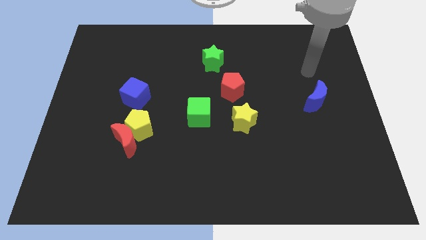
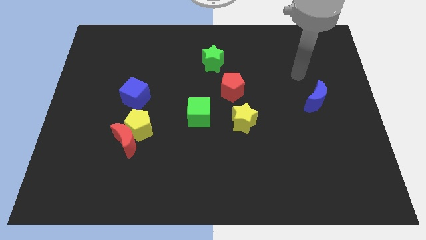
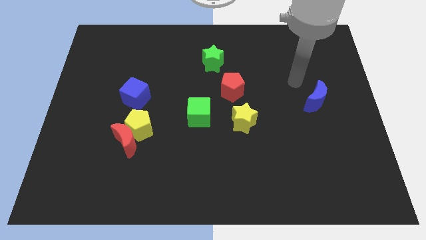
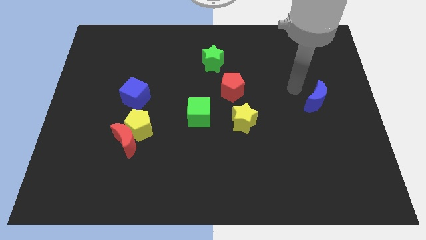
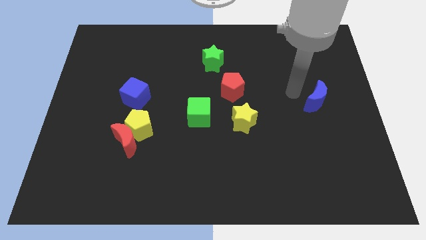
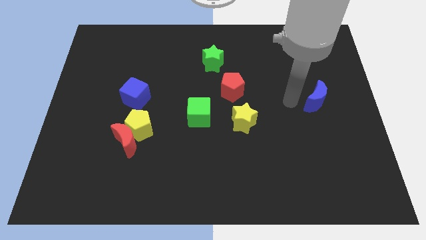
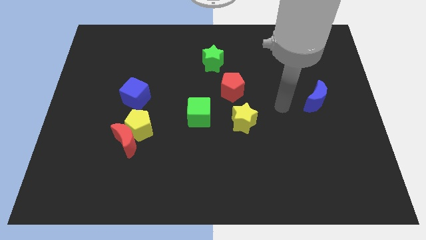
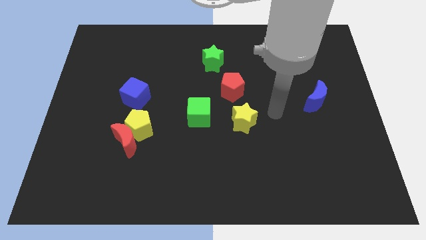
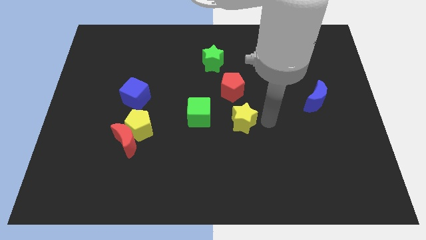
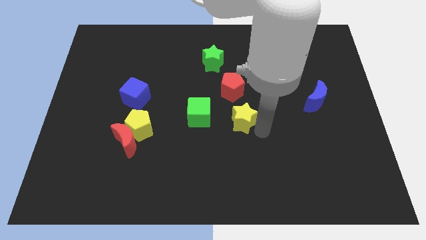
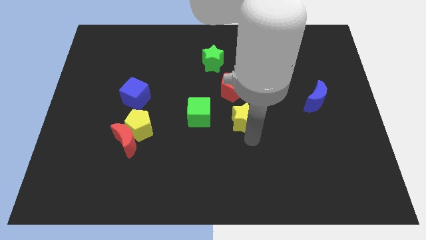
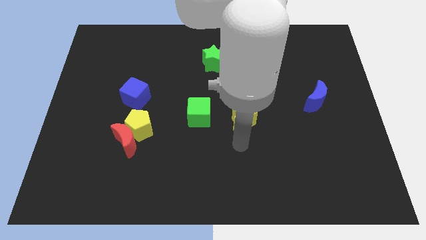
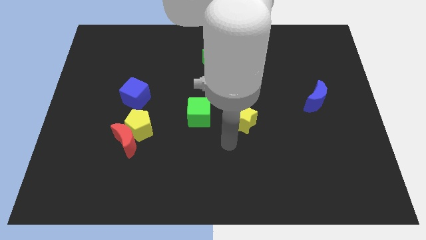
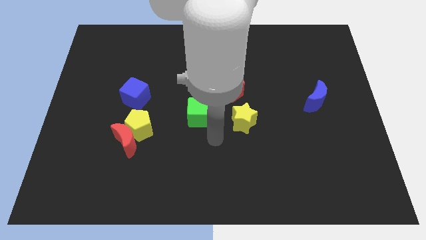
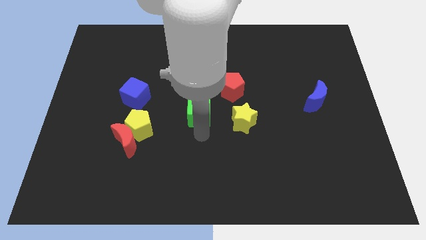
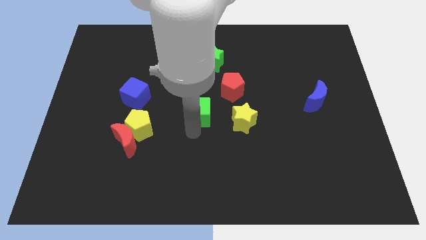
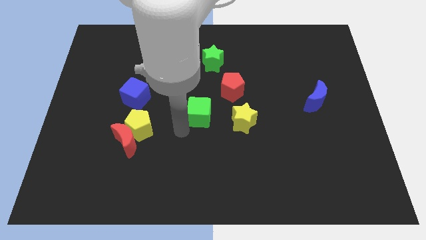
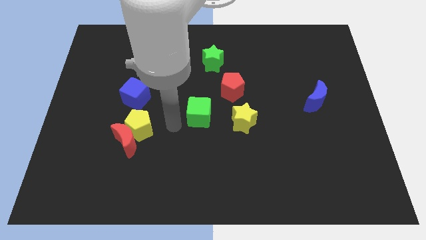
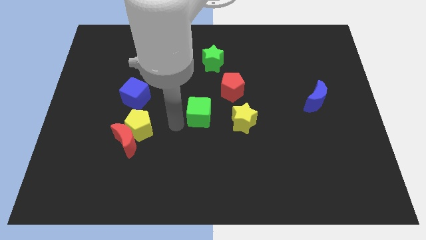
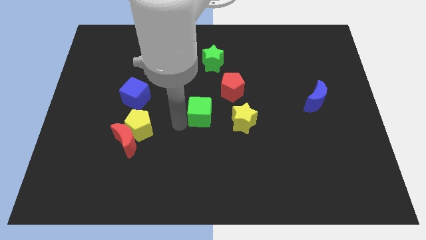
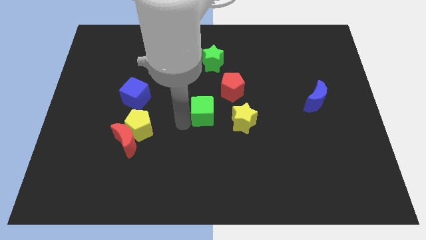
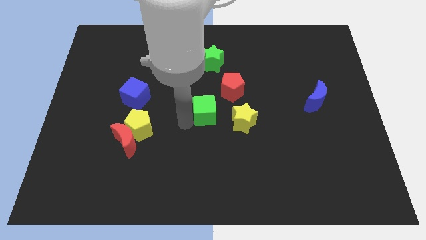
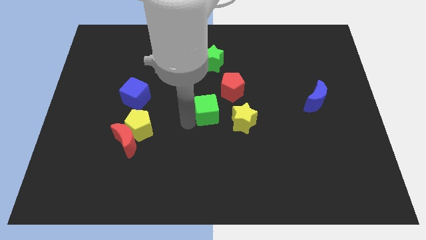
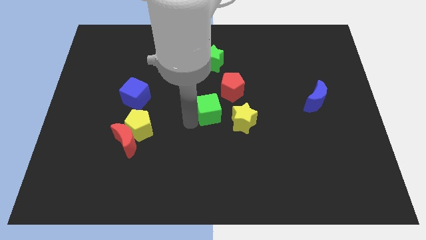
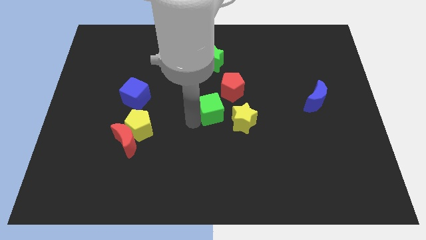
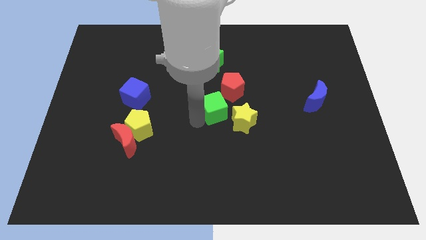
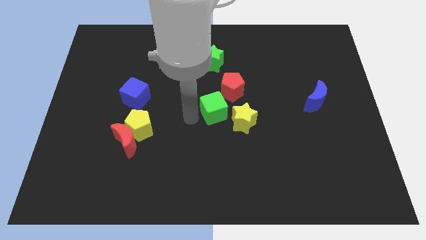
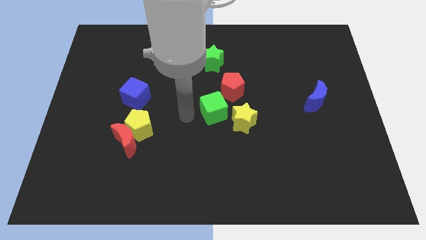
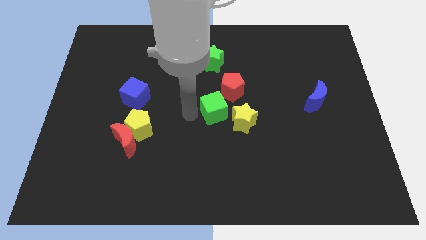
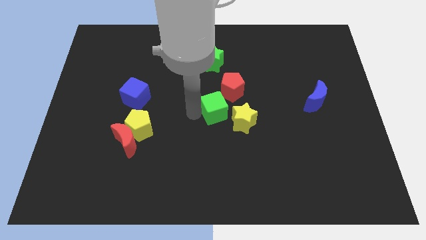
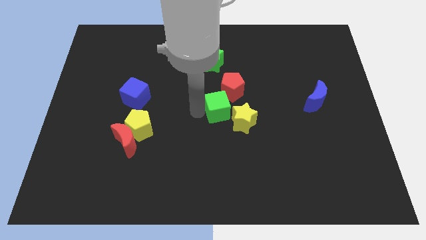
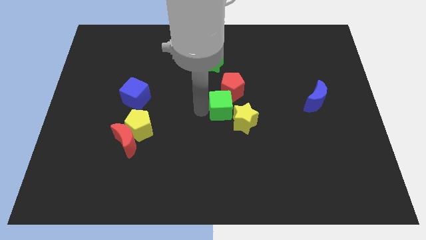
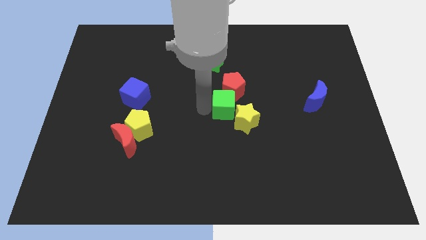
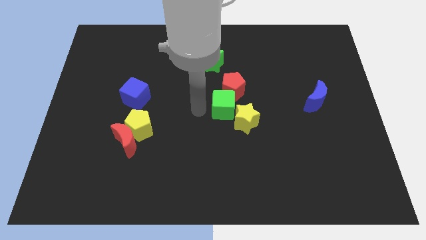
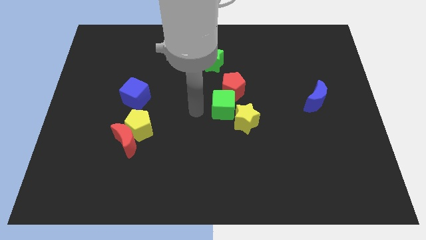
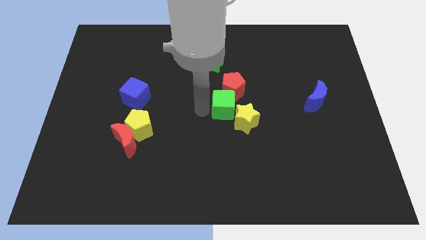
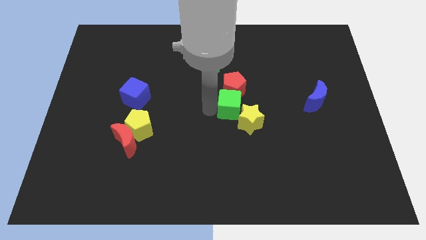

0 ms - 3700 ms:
push the green cube to the right somewhat

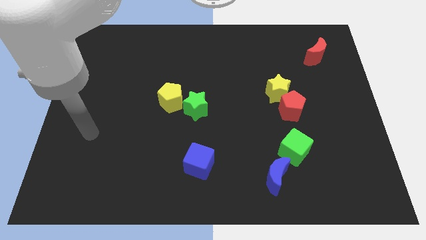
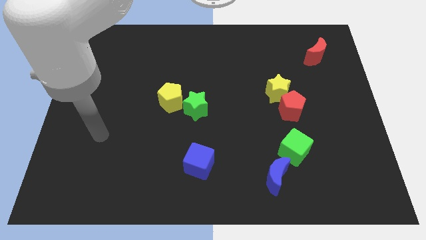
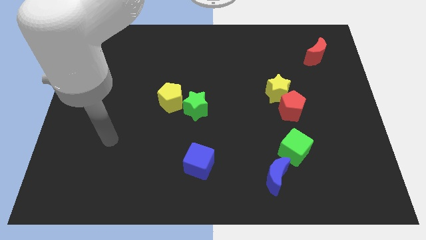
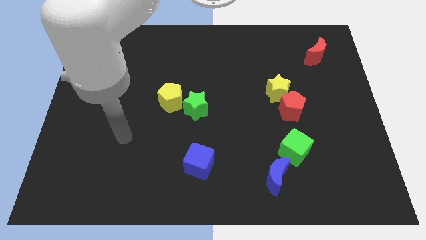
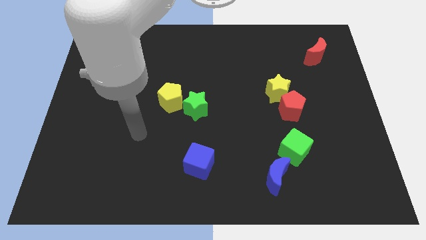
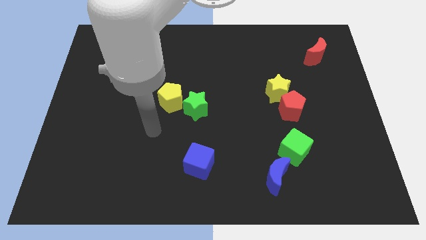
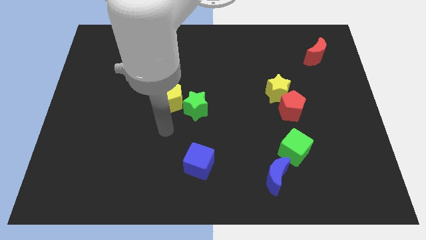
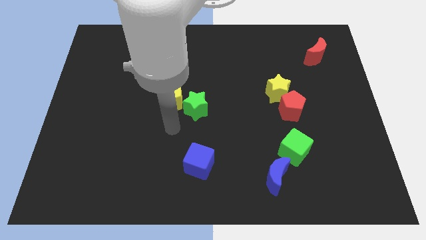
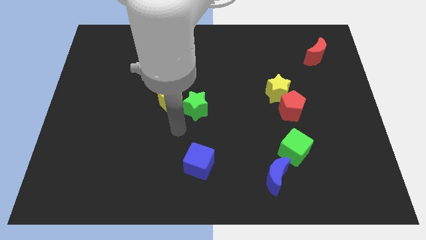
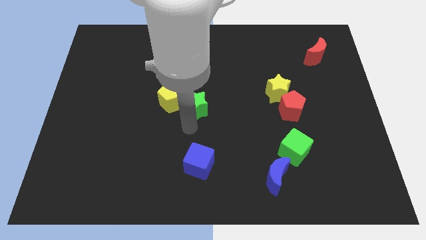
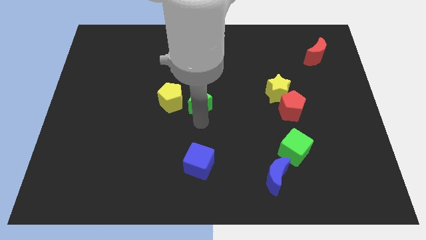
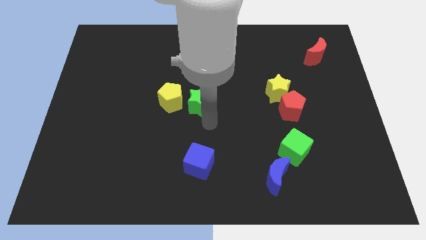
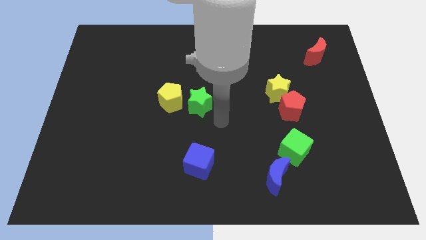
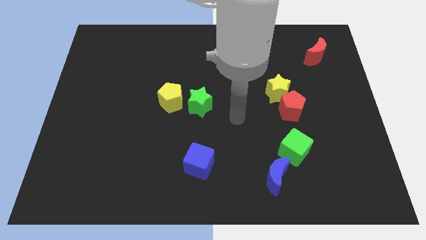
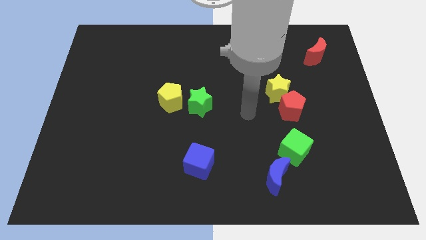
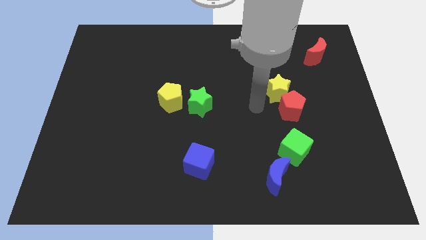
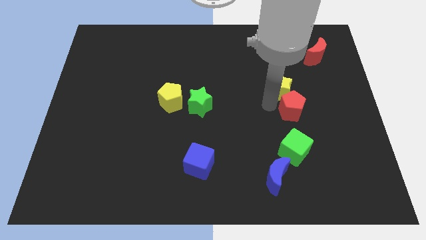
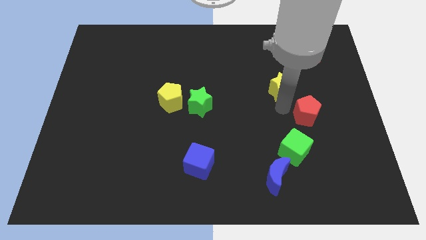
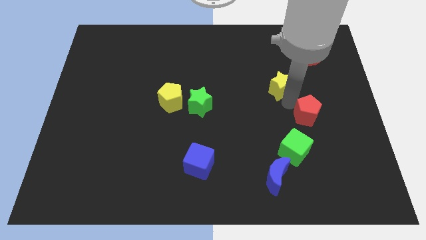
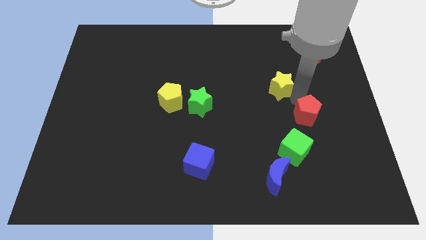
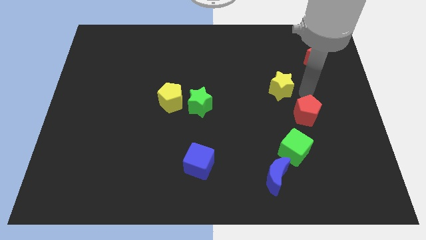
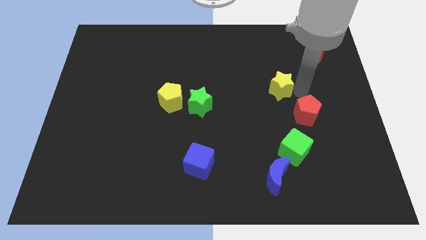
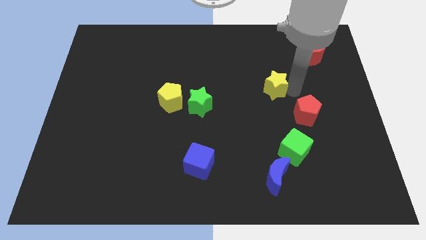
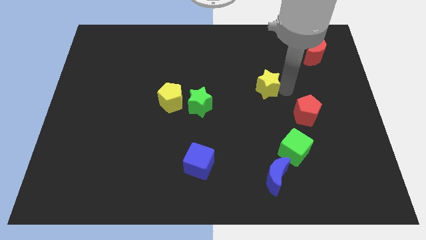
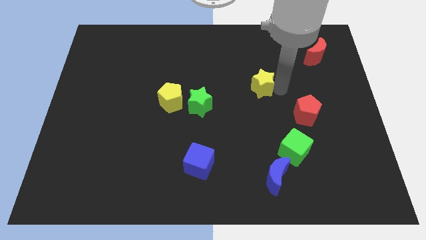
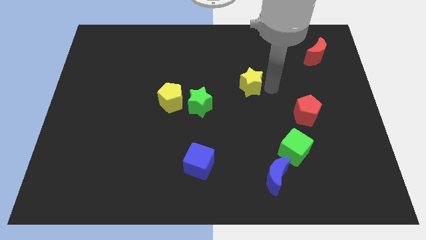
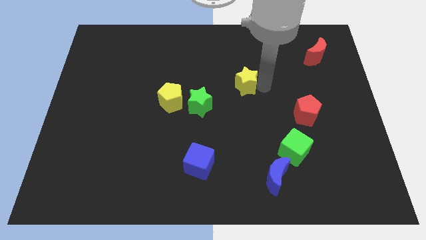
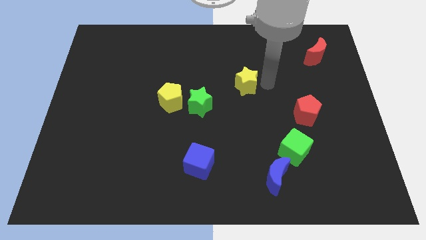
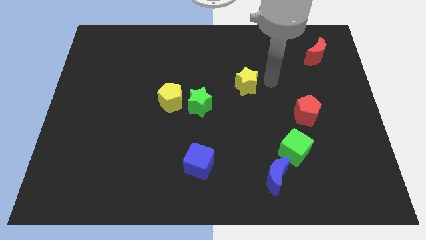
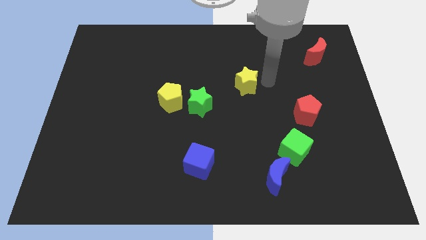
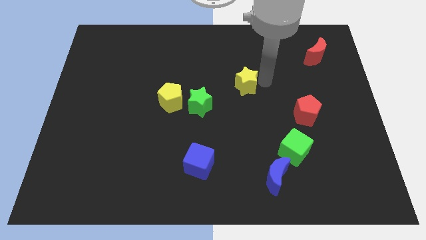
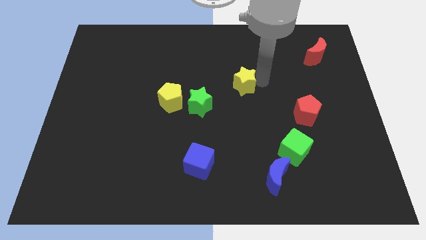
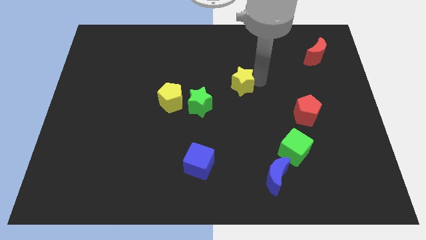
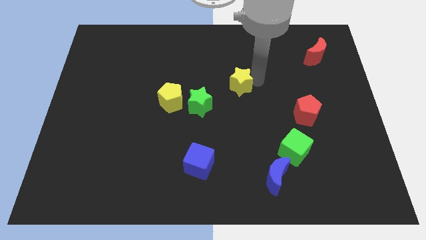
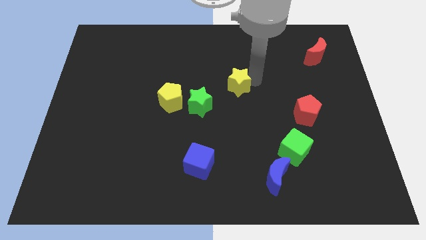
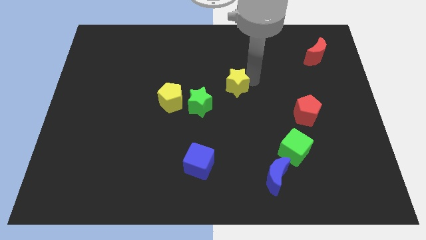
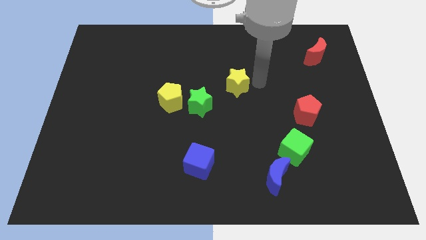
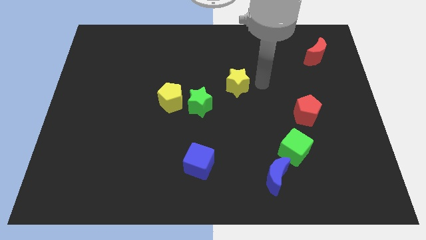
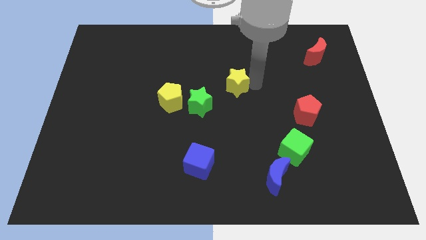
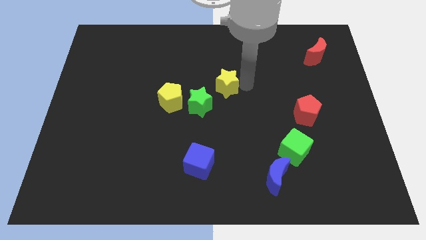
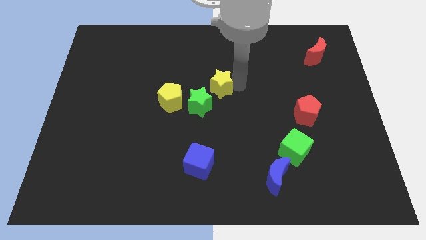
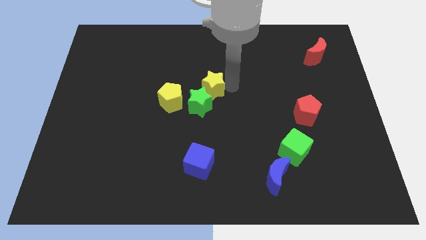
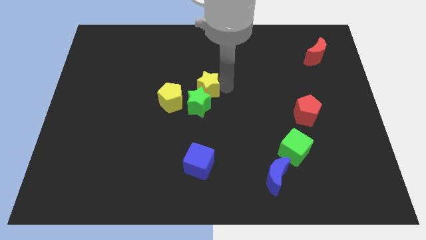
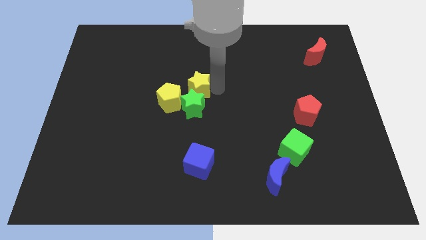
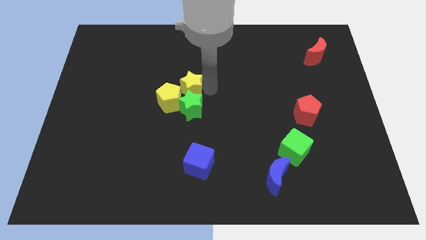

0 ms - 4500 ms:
push the yellow star to the left
